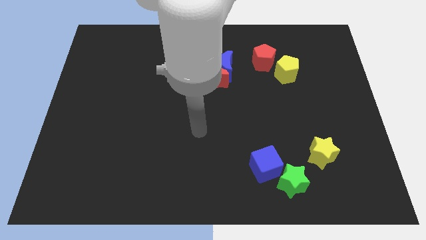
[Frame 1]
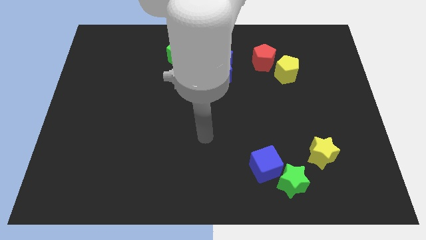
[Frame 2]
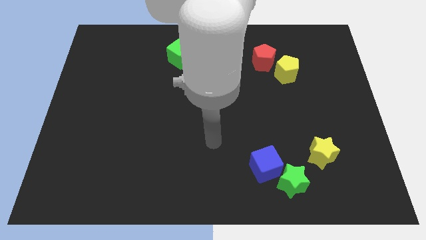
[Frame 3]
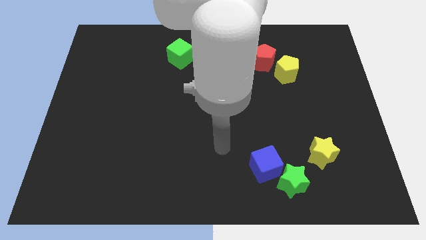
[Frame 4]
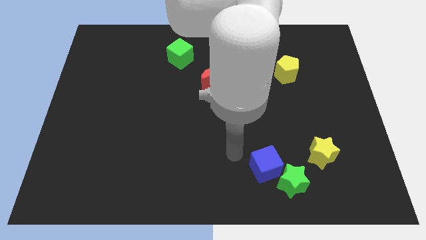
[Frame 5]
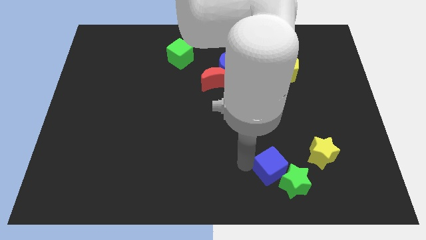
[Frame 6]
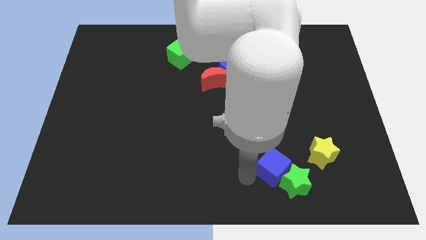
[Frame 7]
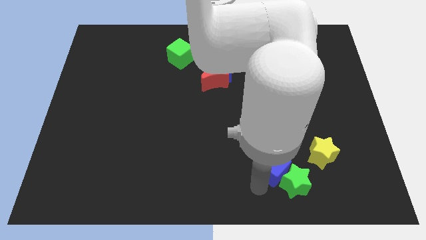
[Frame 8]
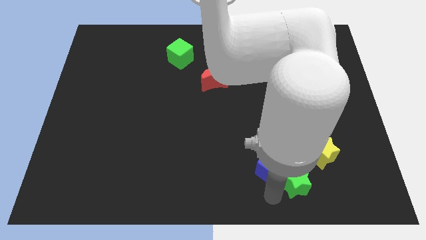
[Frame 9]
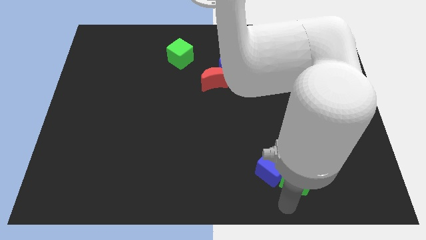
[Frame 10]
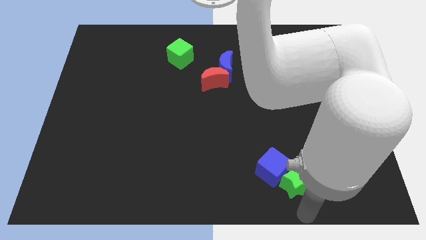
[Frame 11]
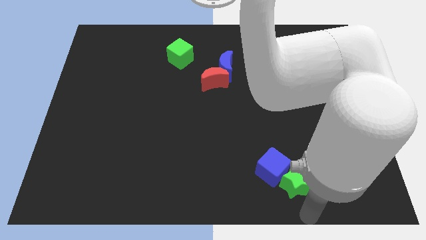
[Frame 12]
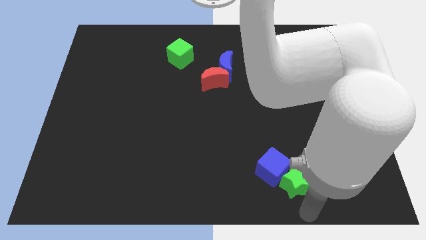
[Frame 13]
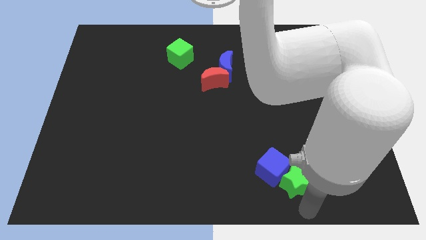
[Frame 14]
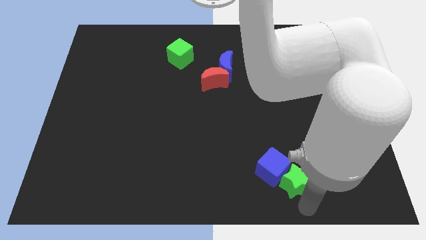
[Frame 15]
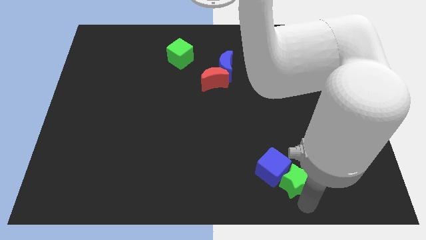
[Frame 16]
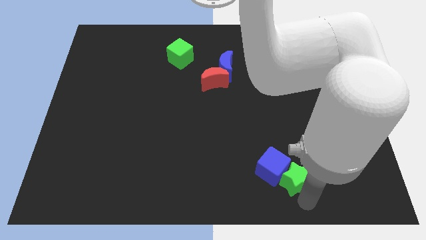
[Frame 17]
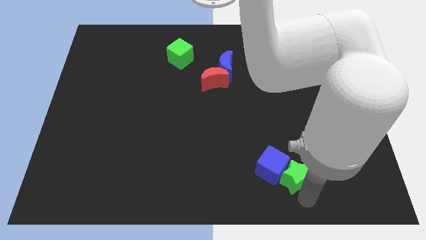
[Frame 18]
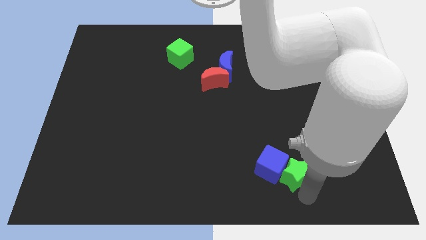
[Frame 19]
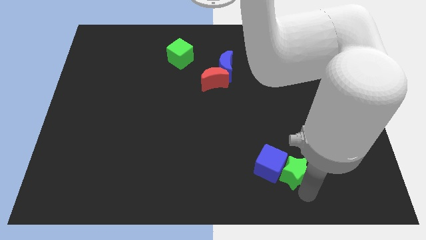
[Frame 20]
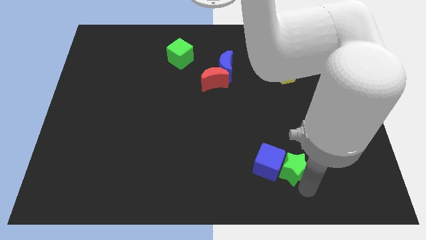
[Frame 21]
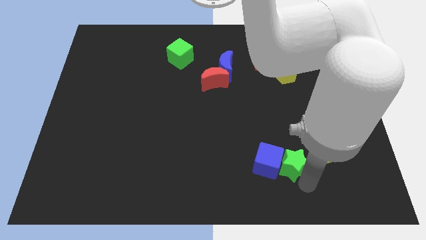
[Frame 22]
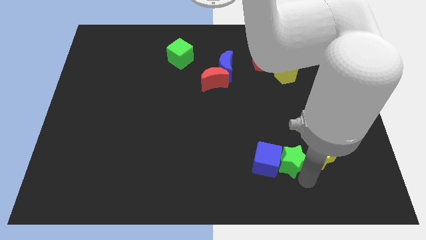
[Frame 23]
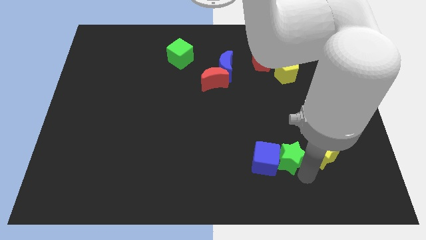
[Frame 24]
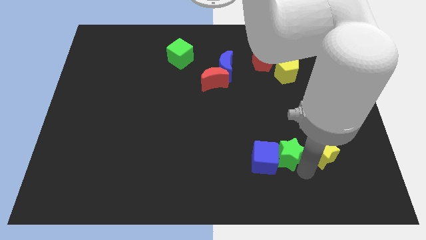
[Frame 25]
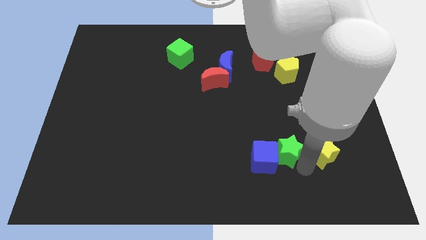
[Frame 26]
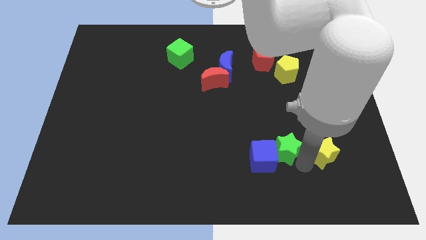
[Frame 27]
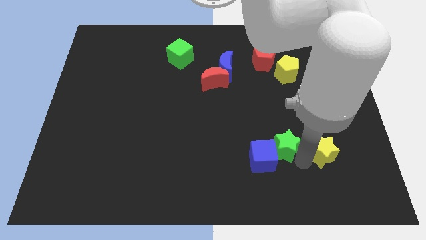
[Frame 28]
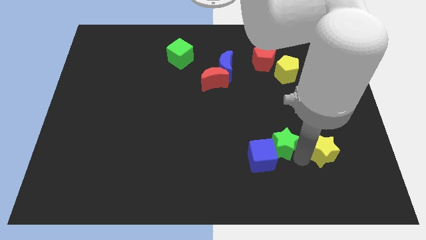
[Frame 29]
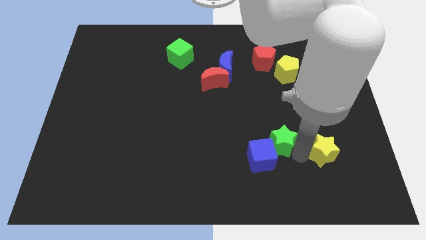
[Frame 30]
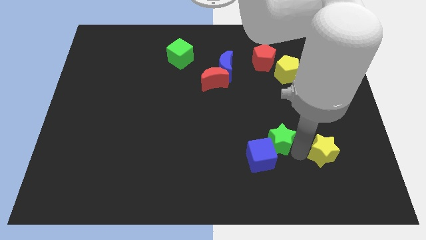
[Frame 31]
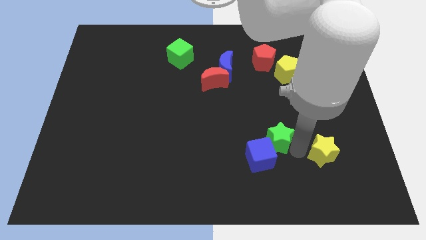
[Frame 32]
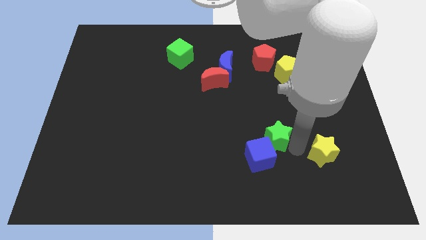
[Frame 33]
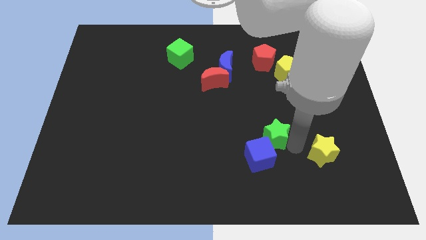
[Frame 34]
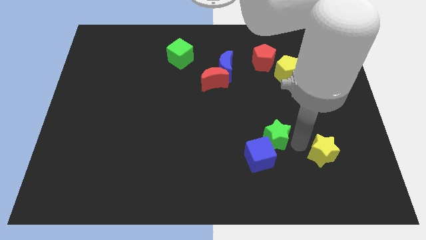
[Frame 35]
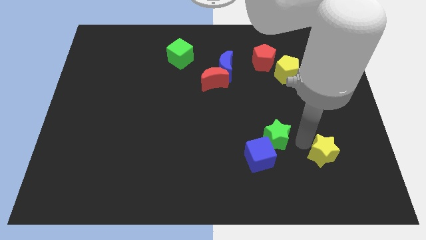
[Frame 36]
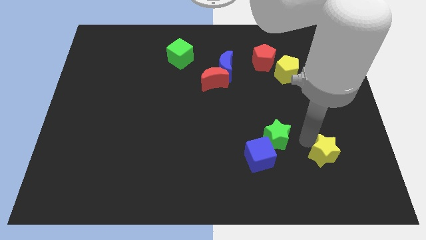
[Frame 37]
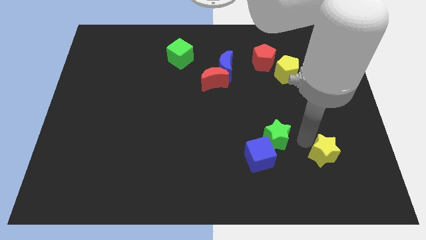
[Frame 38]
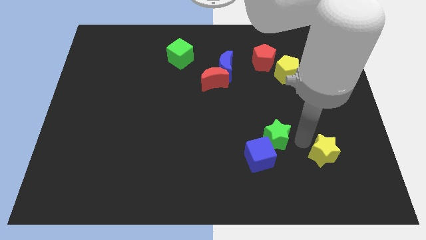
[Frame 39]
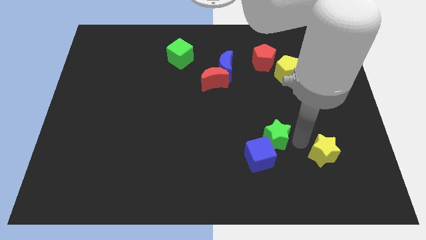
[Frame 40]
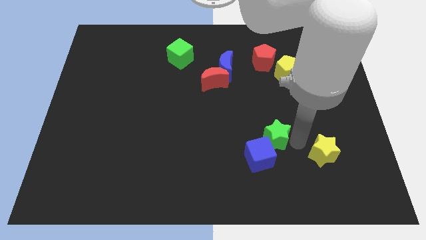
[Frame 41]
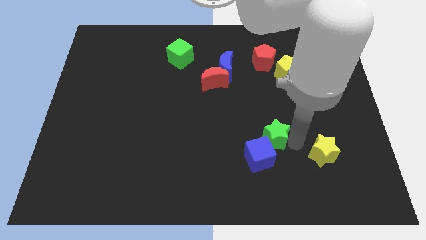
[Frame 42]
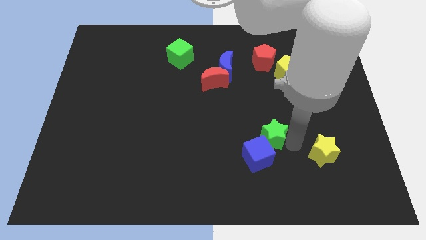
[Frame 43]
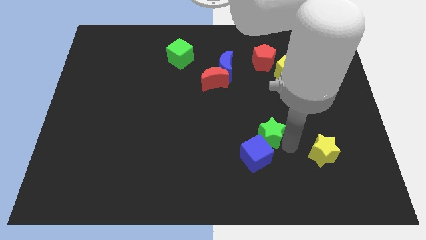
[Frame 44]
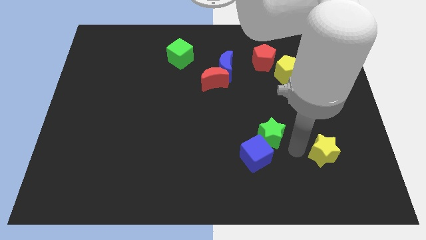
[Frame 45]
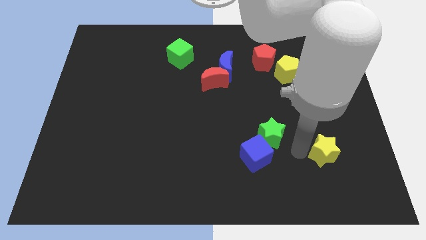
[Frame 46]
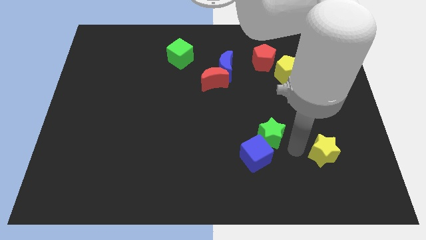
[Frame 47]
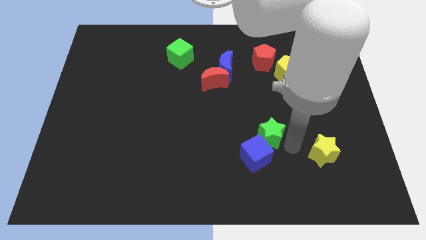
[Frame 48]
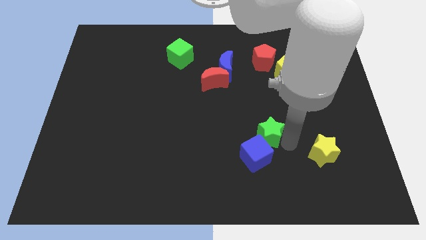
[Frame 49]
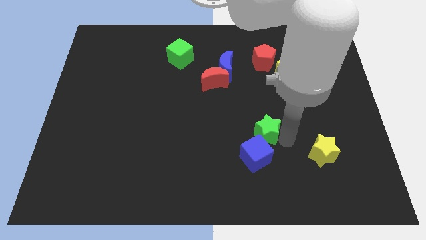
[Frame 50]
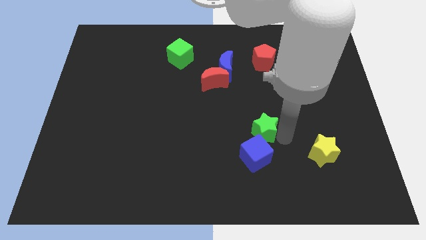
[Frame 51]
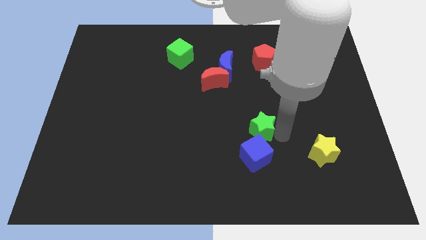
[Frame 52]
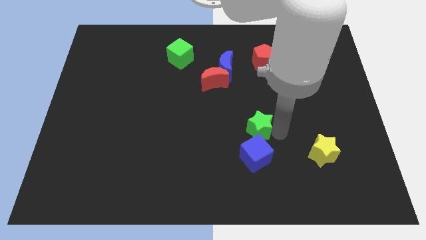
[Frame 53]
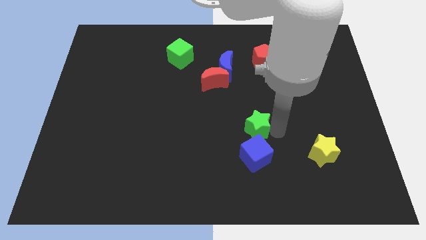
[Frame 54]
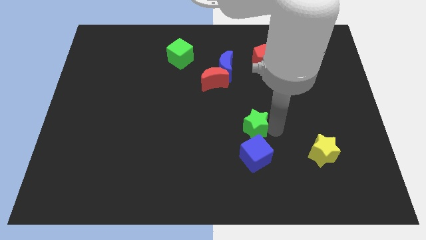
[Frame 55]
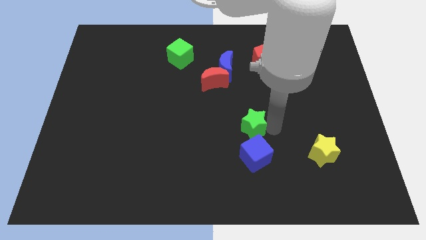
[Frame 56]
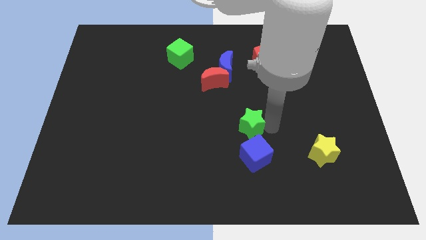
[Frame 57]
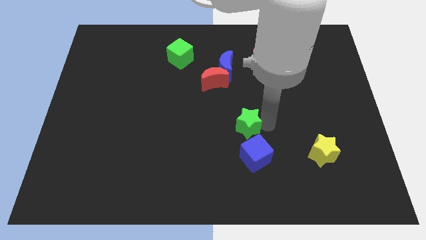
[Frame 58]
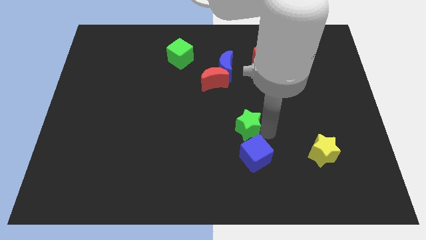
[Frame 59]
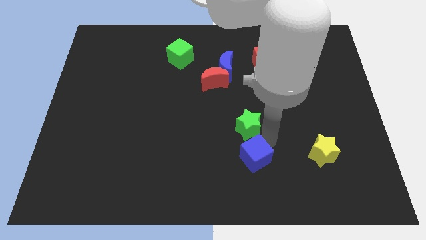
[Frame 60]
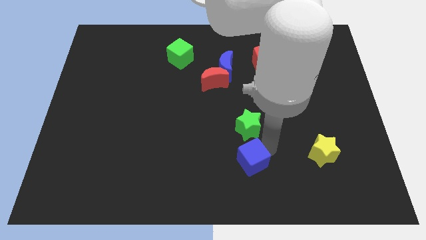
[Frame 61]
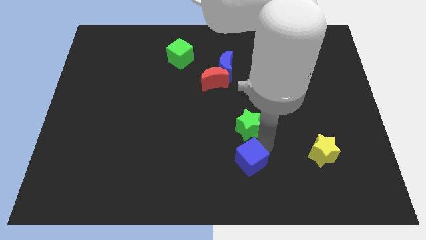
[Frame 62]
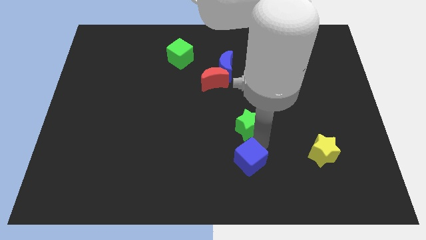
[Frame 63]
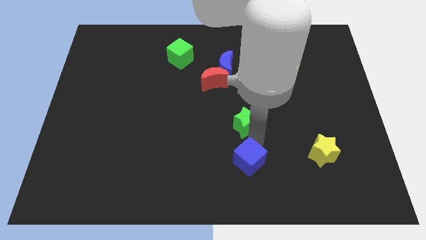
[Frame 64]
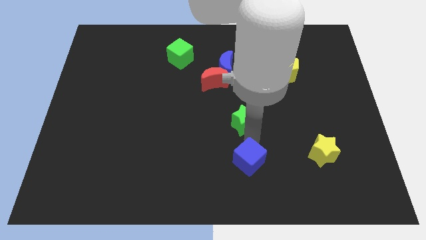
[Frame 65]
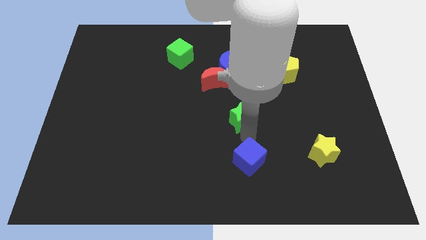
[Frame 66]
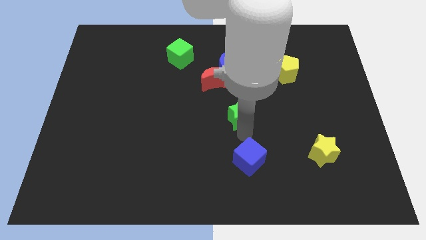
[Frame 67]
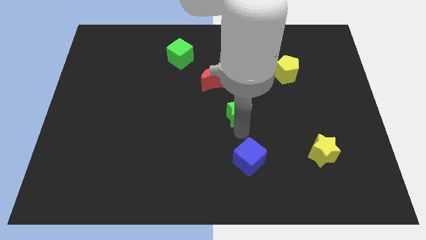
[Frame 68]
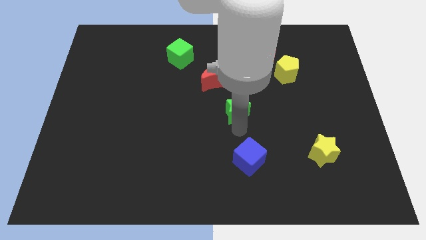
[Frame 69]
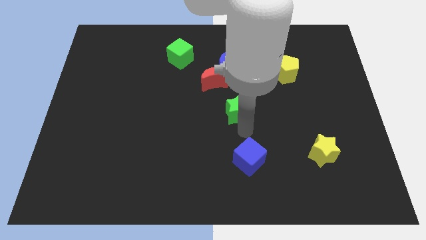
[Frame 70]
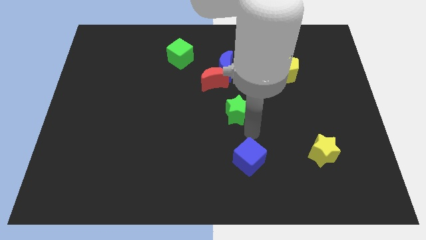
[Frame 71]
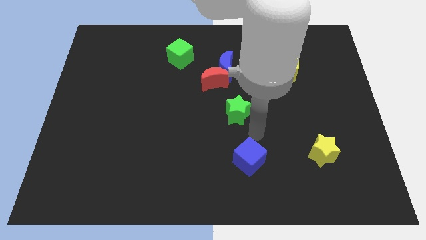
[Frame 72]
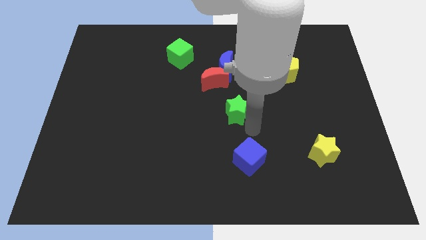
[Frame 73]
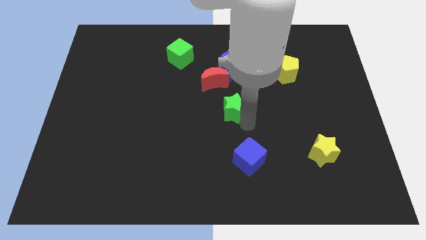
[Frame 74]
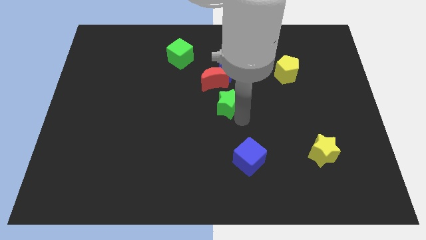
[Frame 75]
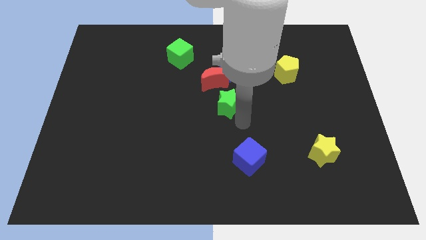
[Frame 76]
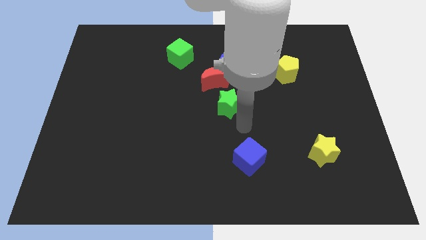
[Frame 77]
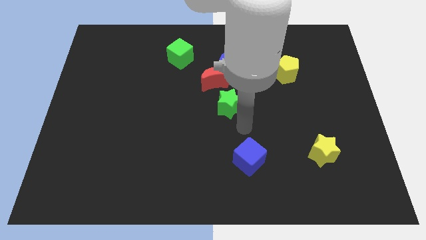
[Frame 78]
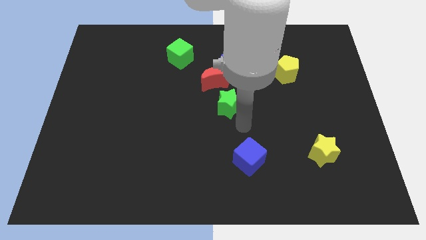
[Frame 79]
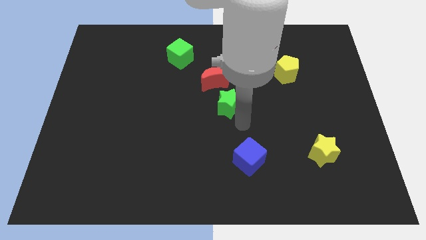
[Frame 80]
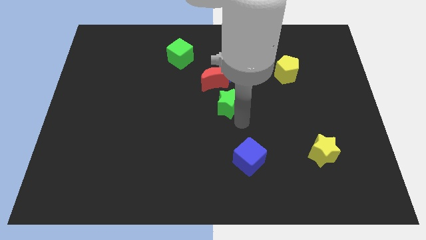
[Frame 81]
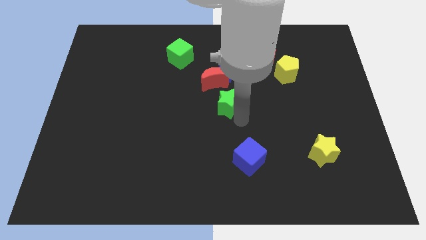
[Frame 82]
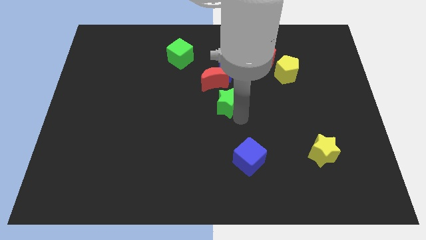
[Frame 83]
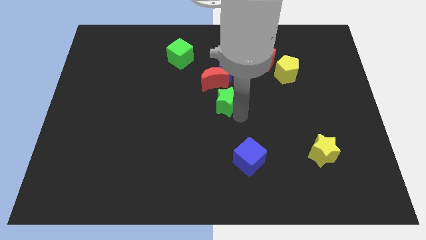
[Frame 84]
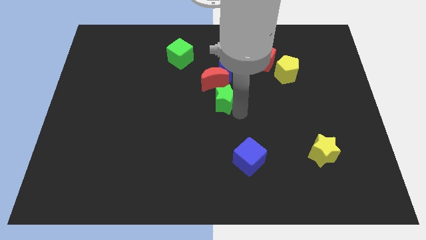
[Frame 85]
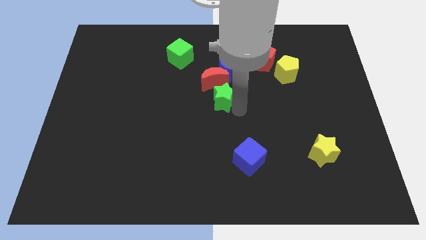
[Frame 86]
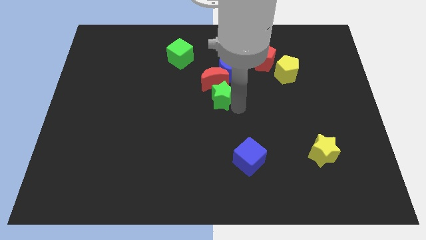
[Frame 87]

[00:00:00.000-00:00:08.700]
move the green star close to the red moon
